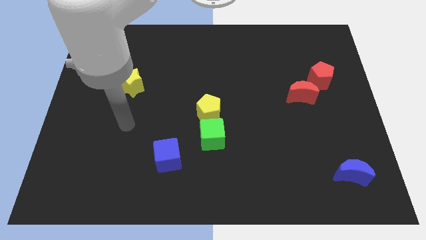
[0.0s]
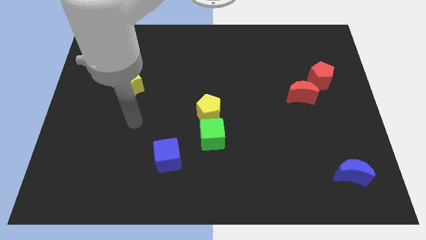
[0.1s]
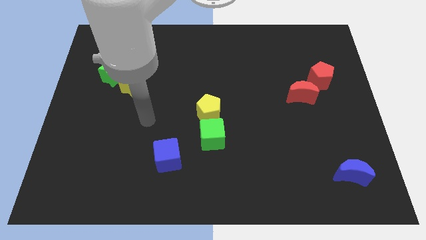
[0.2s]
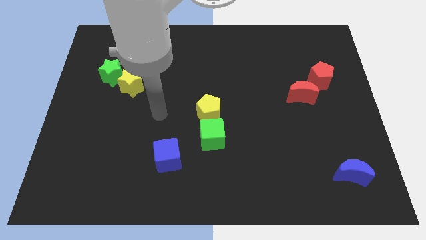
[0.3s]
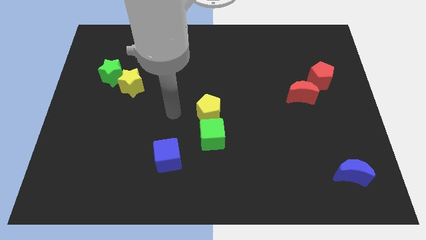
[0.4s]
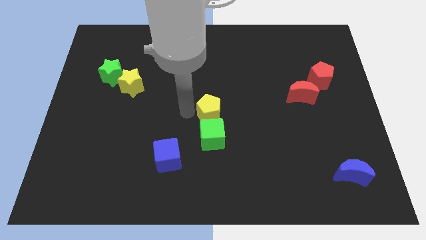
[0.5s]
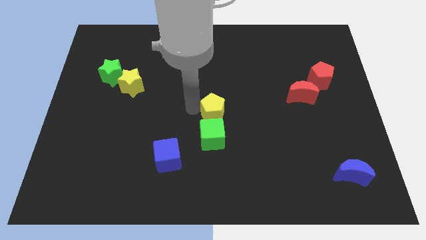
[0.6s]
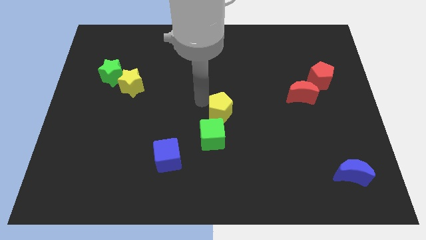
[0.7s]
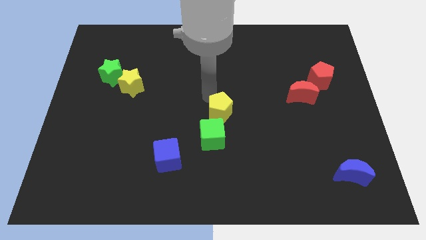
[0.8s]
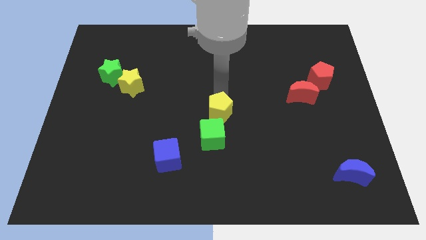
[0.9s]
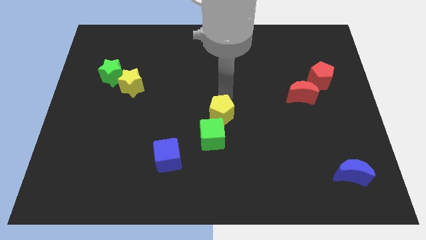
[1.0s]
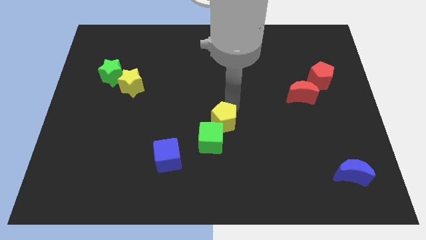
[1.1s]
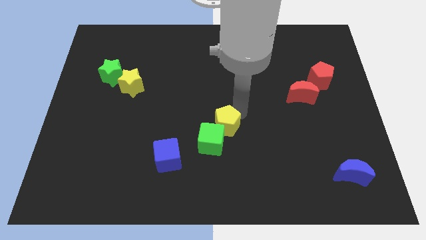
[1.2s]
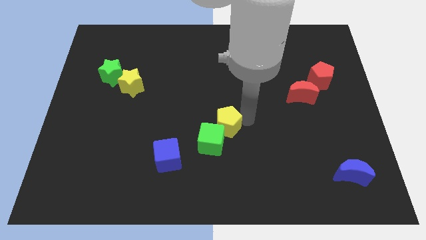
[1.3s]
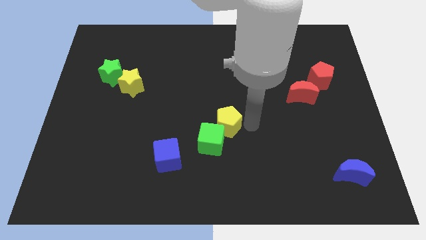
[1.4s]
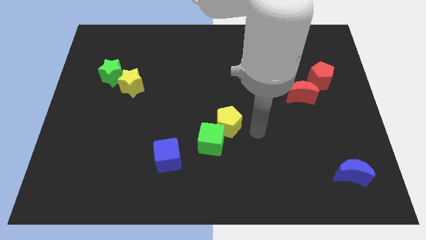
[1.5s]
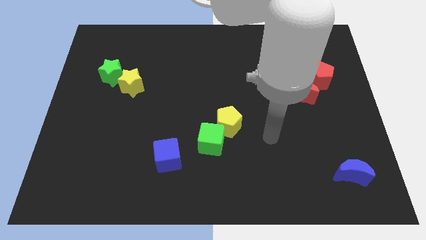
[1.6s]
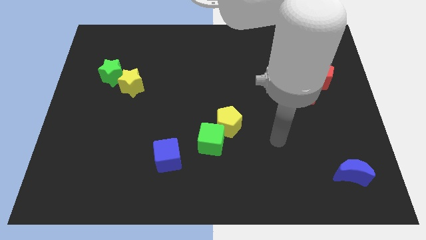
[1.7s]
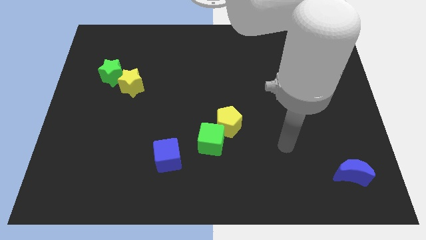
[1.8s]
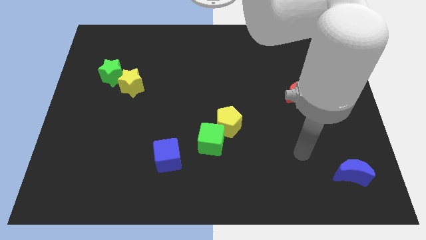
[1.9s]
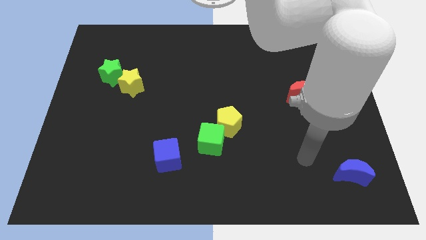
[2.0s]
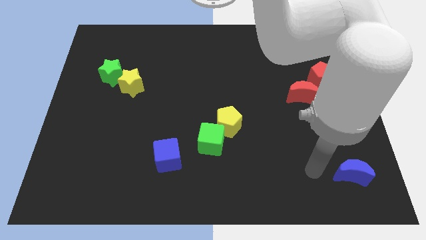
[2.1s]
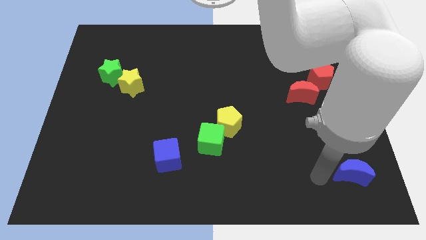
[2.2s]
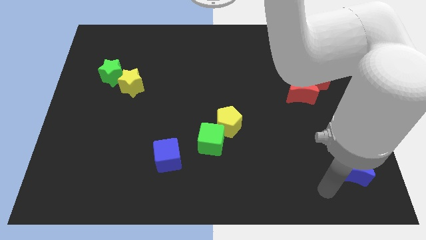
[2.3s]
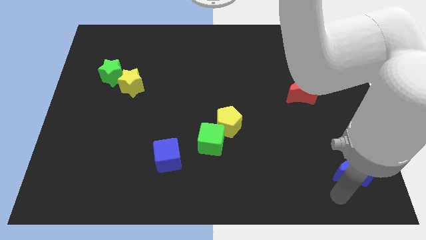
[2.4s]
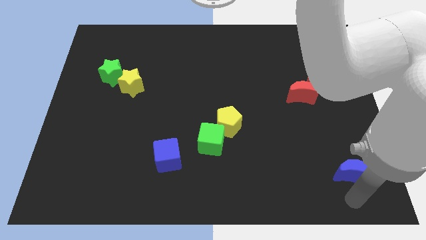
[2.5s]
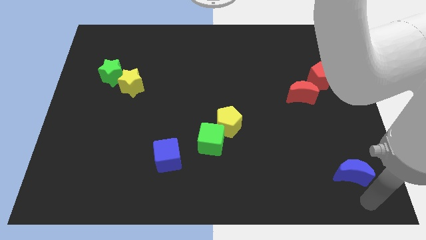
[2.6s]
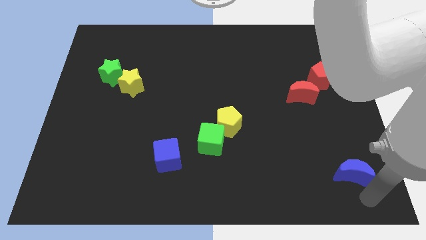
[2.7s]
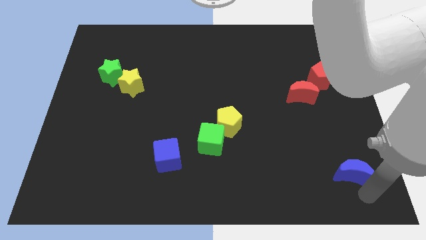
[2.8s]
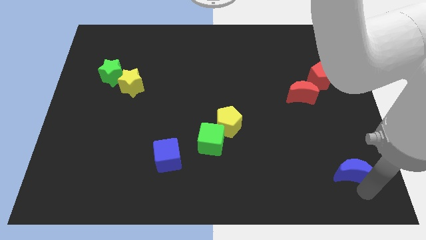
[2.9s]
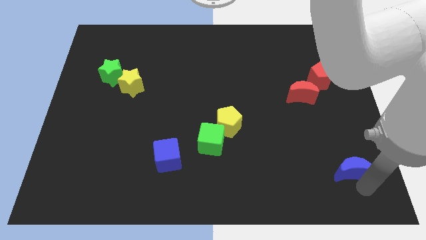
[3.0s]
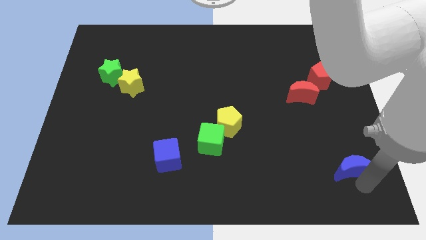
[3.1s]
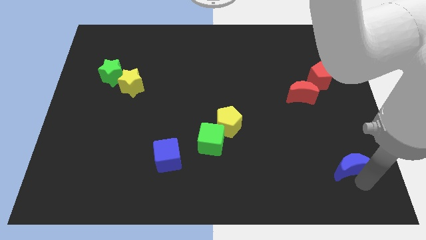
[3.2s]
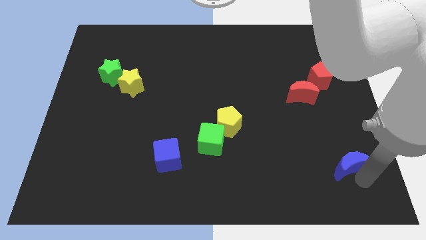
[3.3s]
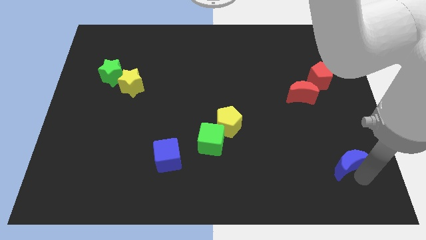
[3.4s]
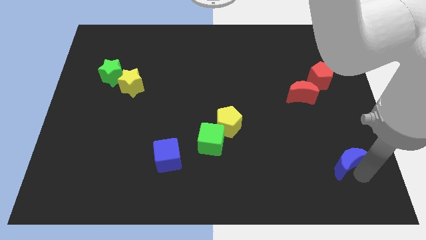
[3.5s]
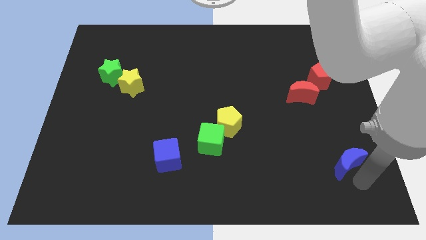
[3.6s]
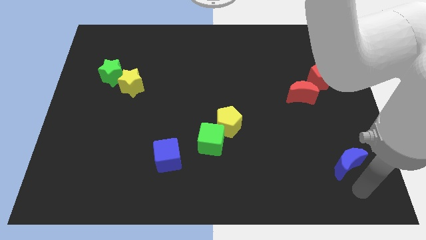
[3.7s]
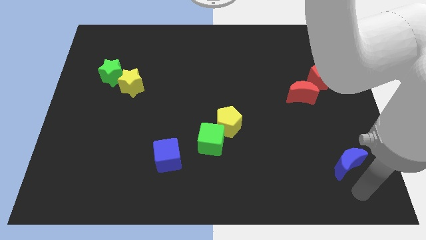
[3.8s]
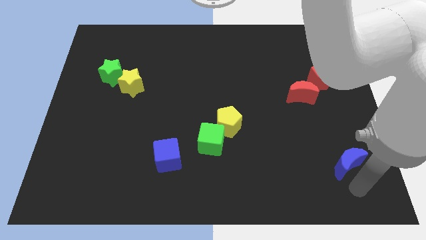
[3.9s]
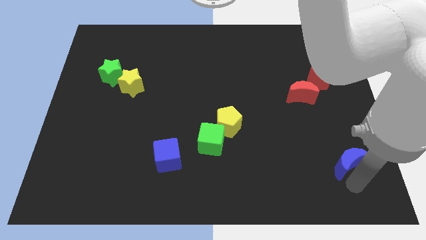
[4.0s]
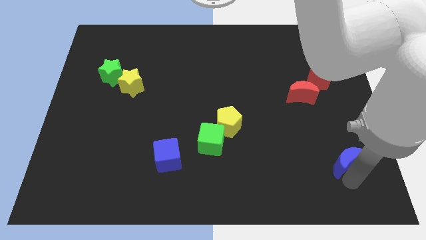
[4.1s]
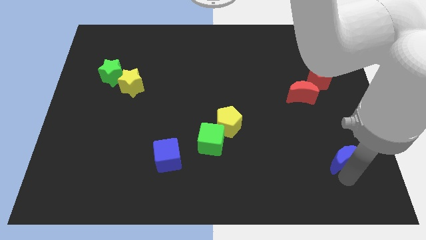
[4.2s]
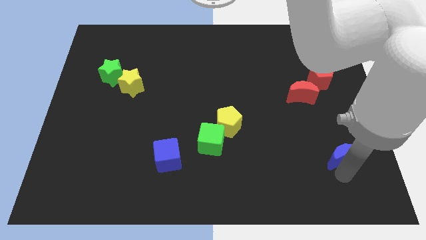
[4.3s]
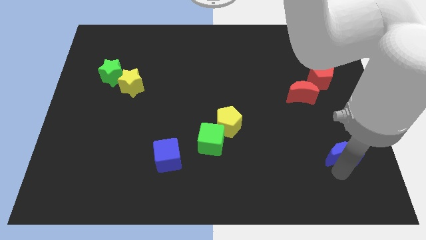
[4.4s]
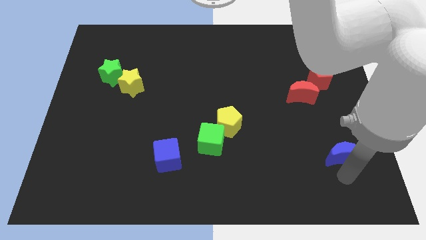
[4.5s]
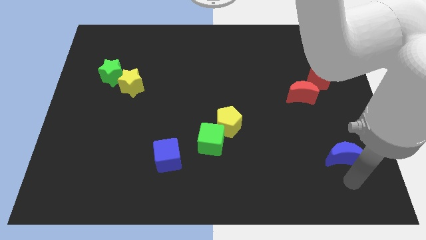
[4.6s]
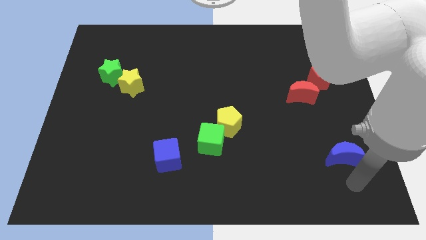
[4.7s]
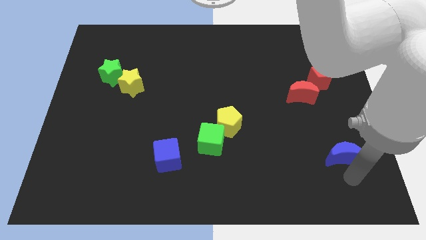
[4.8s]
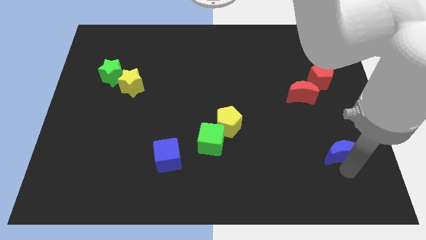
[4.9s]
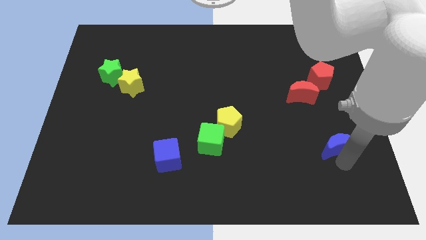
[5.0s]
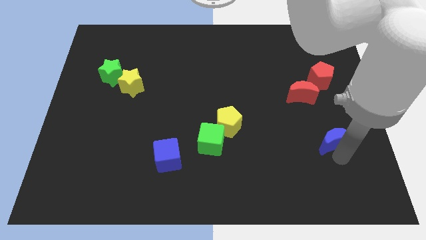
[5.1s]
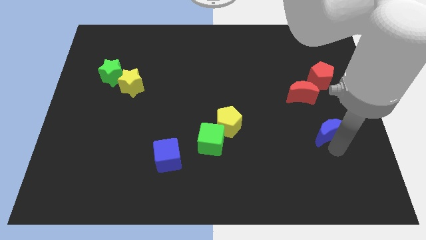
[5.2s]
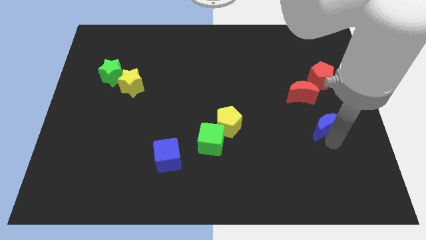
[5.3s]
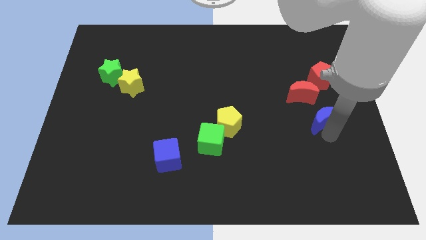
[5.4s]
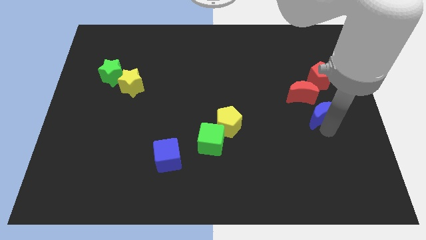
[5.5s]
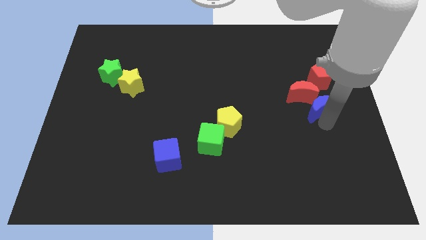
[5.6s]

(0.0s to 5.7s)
push the blue moon towards the red moon

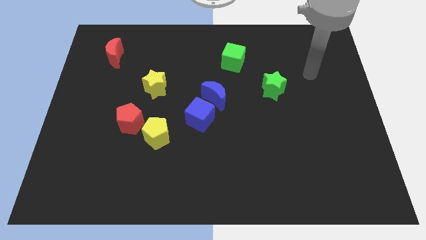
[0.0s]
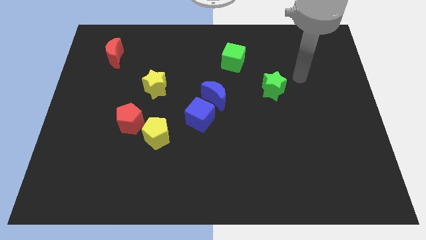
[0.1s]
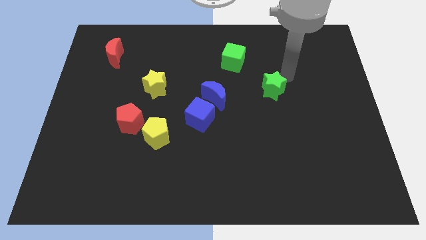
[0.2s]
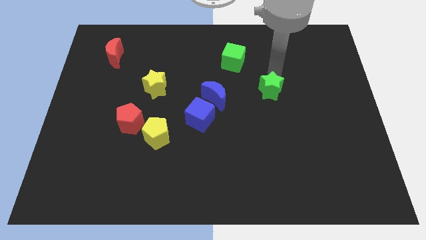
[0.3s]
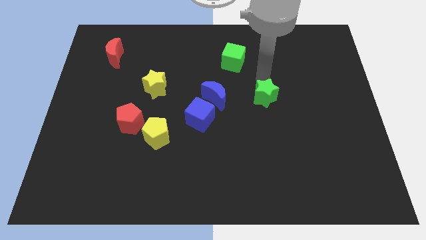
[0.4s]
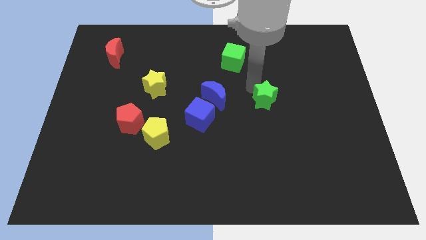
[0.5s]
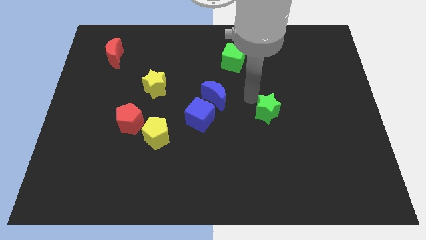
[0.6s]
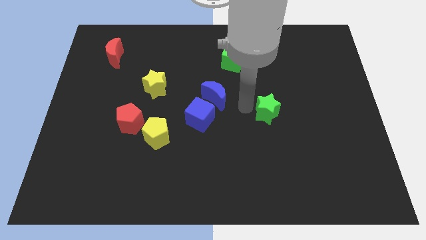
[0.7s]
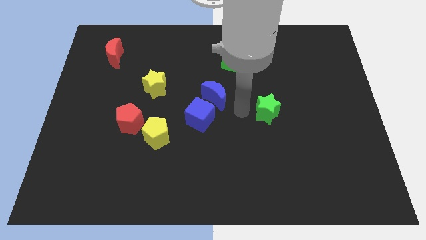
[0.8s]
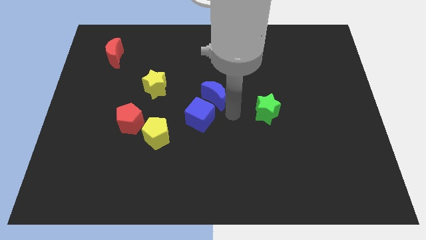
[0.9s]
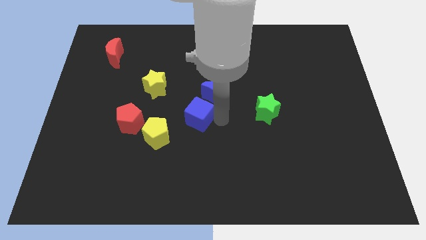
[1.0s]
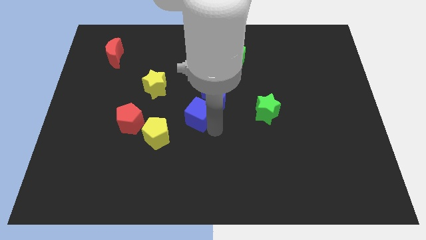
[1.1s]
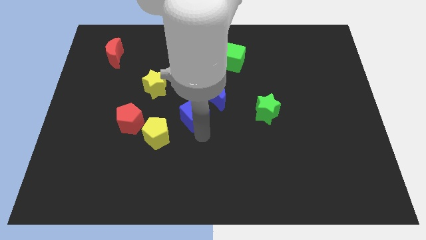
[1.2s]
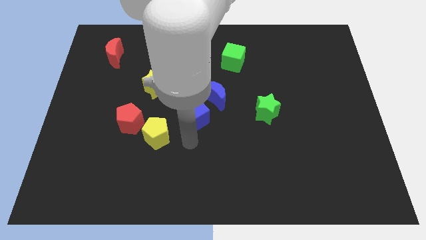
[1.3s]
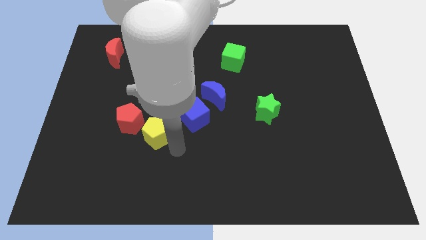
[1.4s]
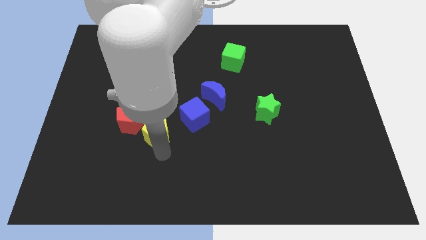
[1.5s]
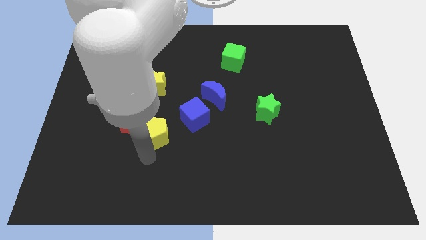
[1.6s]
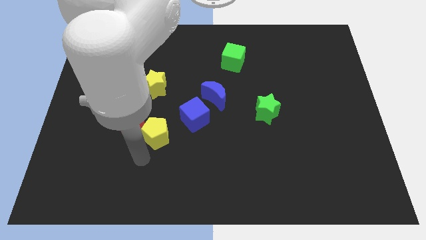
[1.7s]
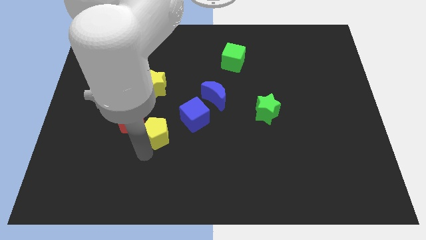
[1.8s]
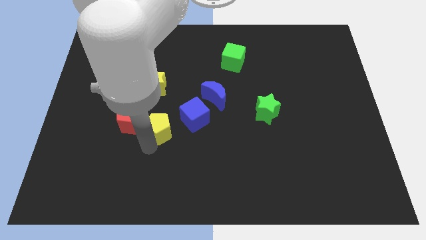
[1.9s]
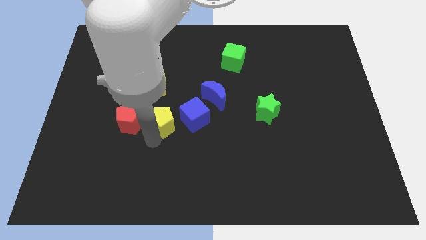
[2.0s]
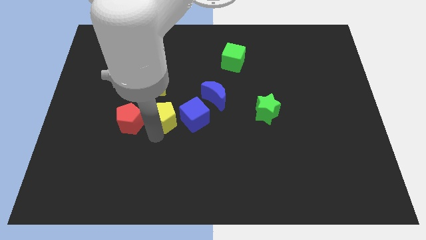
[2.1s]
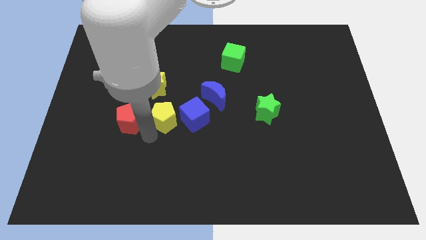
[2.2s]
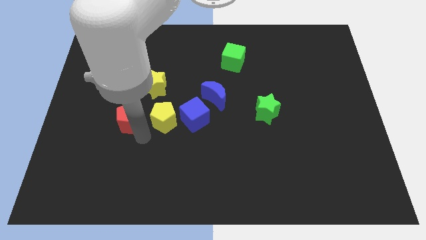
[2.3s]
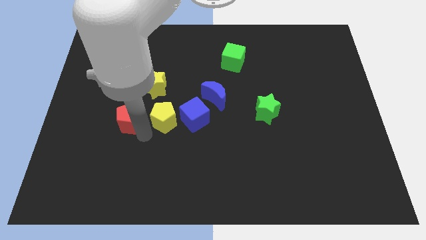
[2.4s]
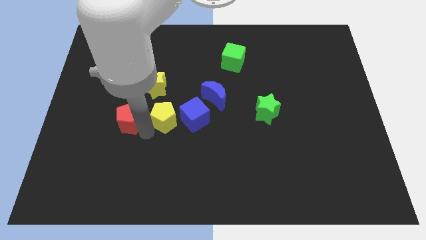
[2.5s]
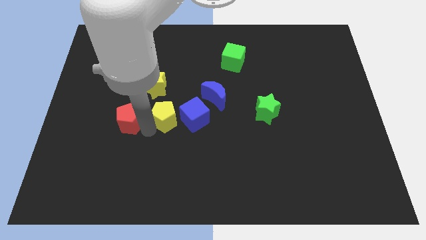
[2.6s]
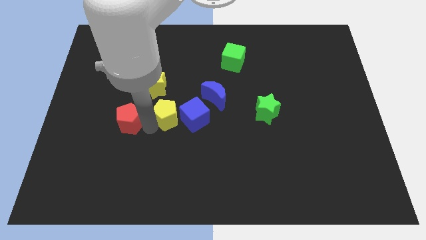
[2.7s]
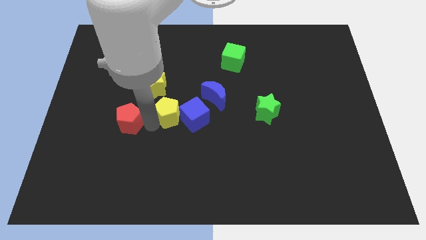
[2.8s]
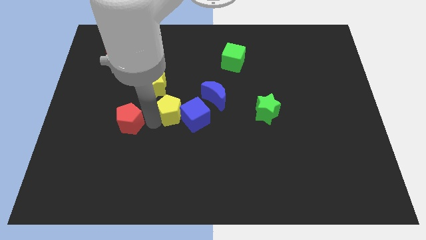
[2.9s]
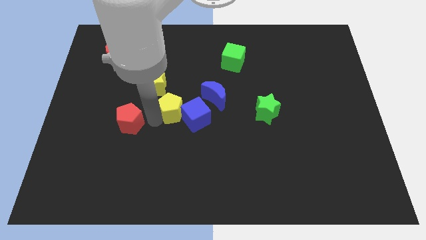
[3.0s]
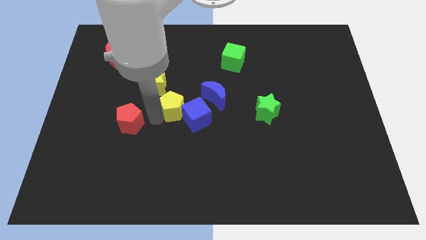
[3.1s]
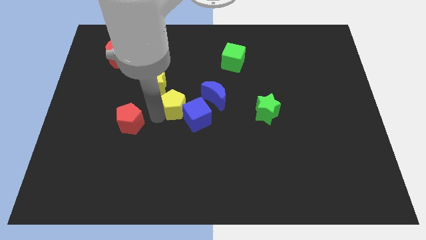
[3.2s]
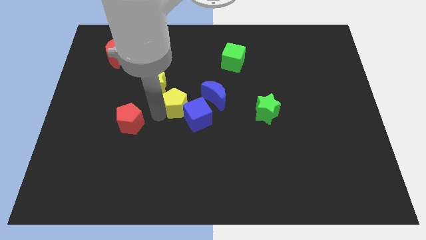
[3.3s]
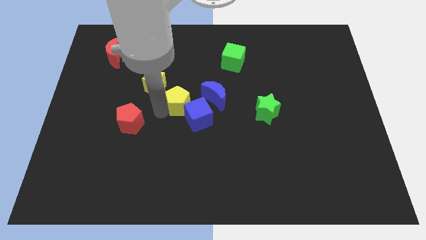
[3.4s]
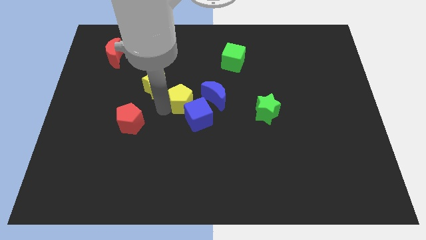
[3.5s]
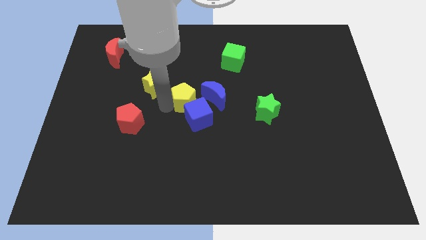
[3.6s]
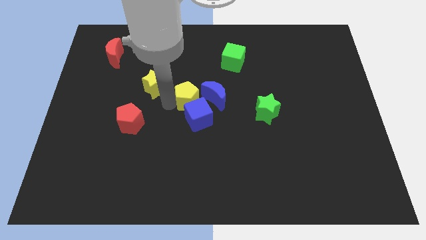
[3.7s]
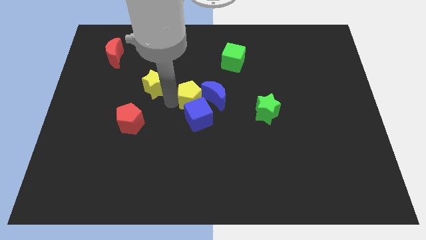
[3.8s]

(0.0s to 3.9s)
push the yellow pentagon close to the blue moon
